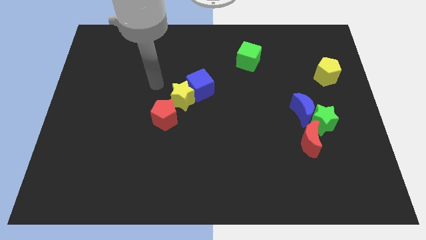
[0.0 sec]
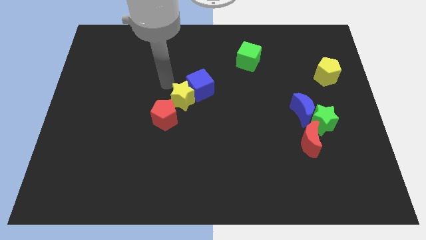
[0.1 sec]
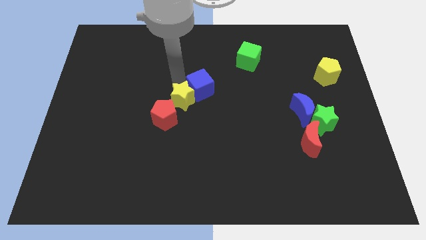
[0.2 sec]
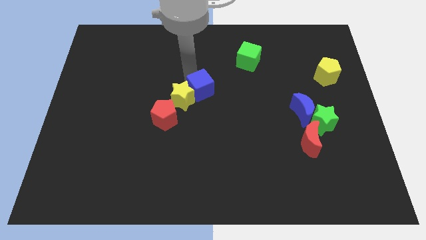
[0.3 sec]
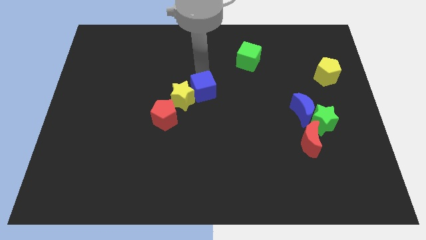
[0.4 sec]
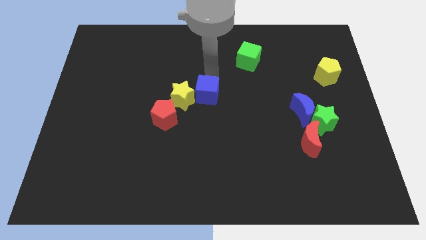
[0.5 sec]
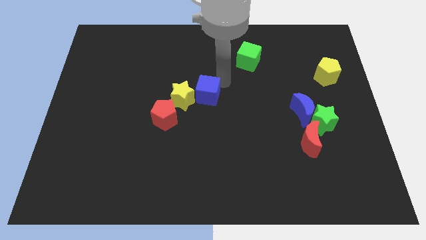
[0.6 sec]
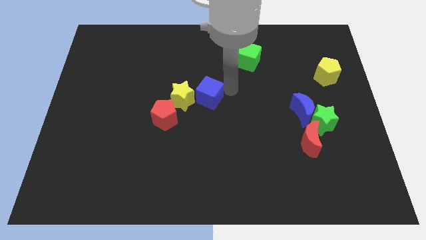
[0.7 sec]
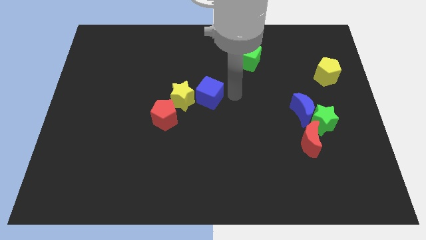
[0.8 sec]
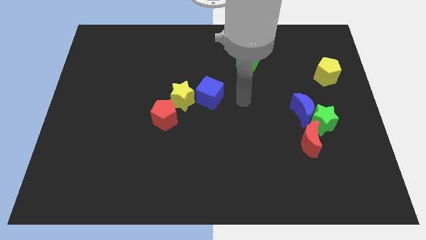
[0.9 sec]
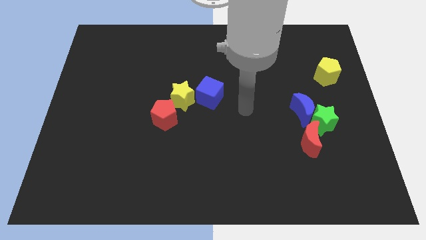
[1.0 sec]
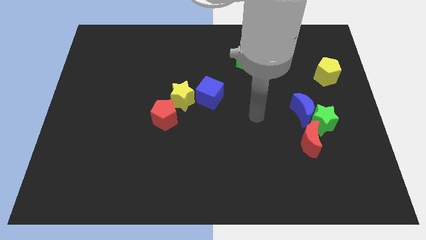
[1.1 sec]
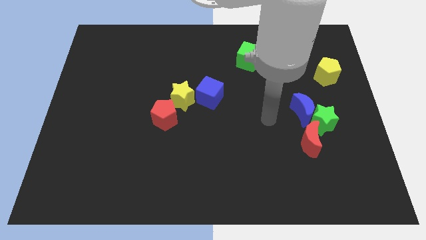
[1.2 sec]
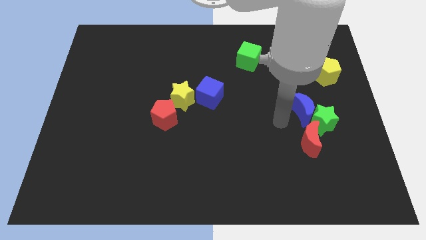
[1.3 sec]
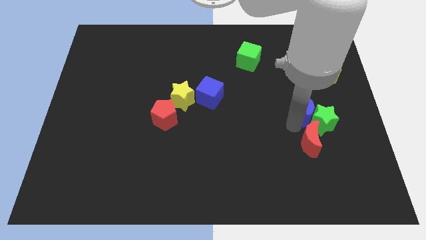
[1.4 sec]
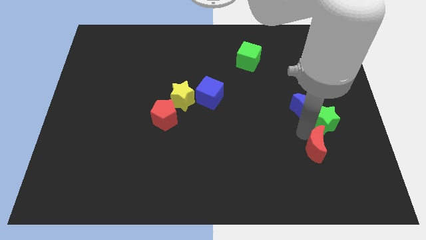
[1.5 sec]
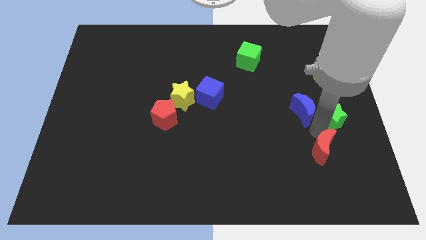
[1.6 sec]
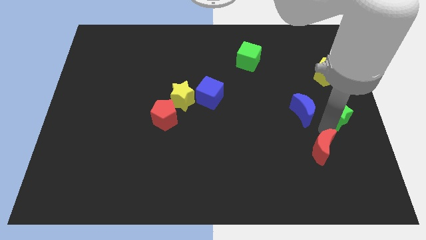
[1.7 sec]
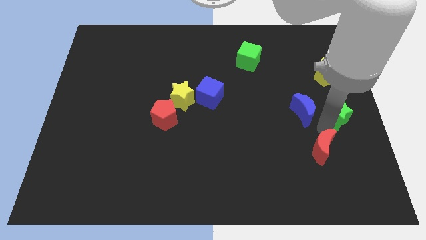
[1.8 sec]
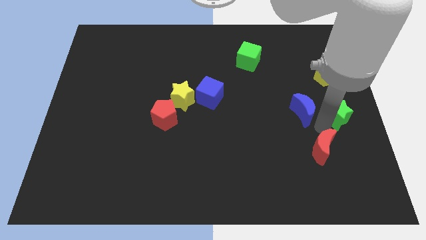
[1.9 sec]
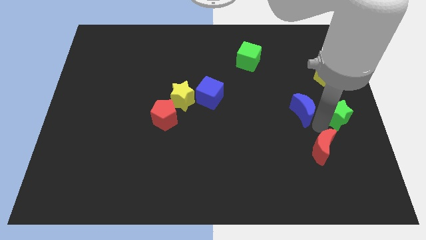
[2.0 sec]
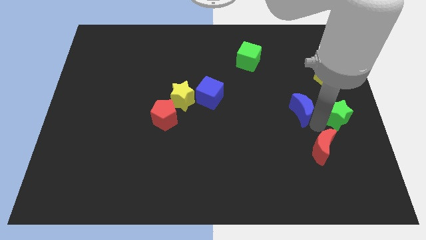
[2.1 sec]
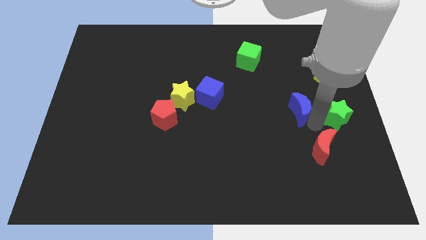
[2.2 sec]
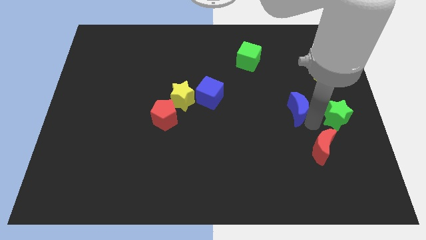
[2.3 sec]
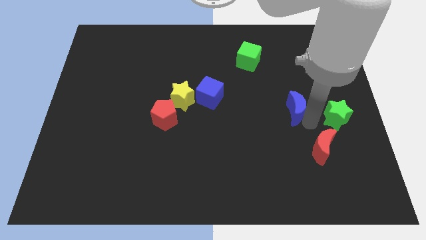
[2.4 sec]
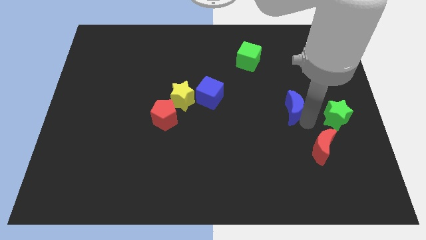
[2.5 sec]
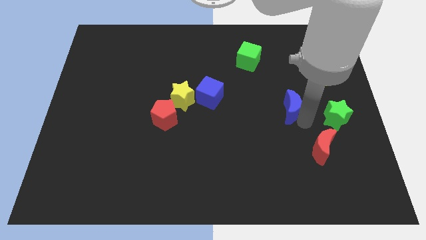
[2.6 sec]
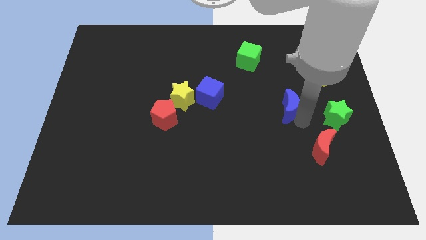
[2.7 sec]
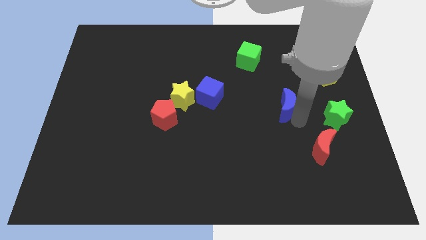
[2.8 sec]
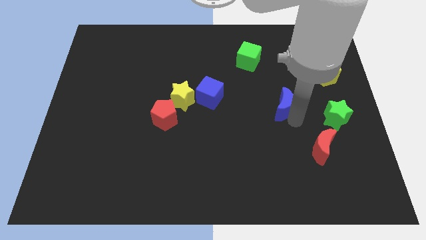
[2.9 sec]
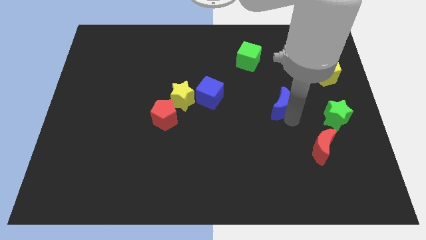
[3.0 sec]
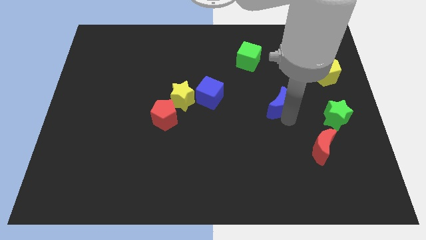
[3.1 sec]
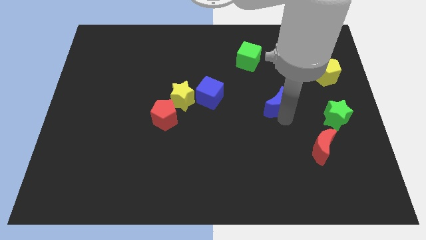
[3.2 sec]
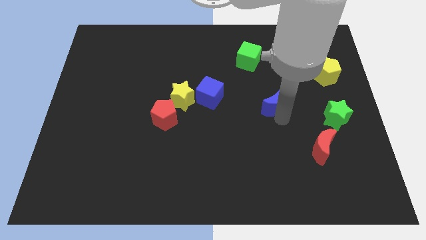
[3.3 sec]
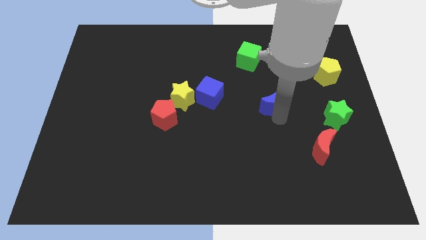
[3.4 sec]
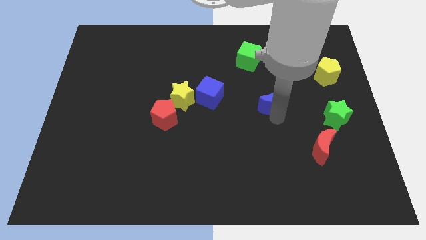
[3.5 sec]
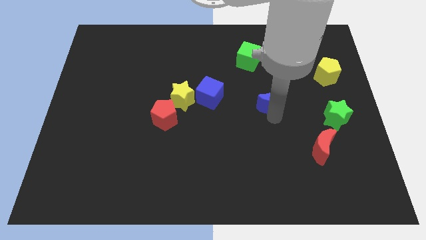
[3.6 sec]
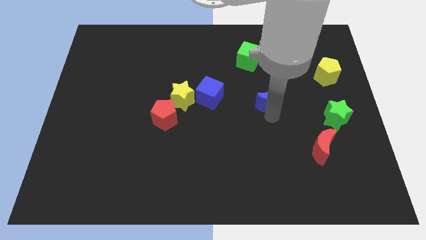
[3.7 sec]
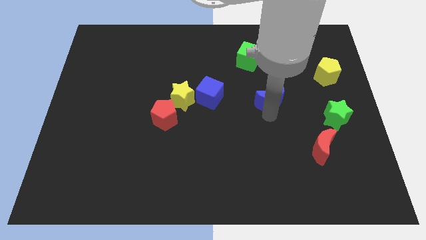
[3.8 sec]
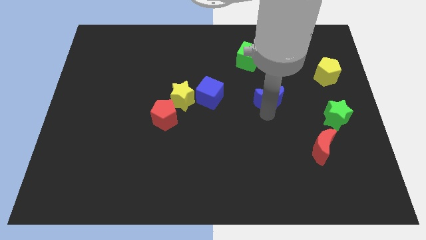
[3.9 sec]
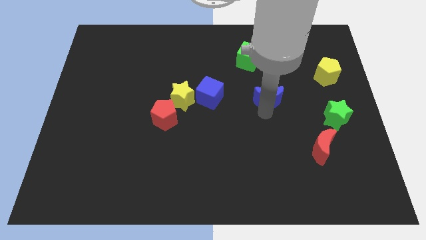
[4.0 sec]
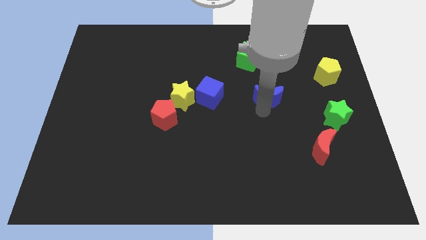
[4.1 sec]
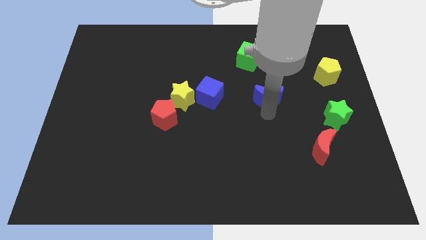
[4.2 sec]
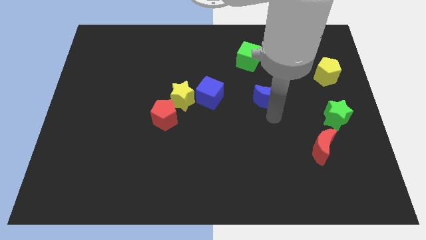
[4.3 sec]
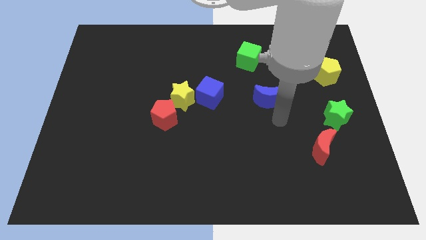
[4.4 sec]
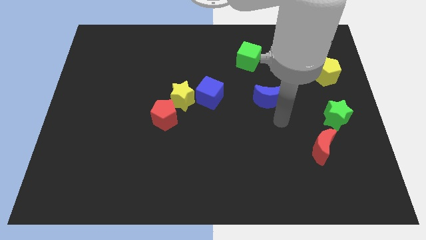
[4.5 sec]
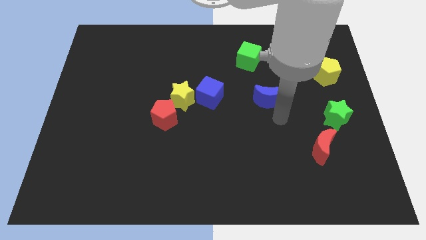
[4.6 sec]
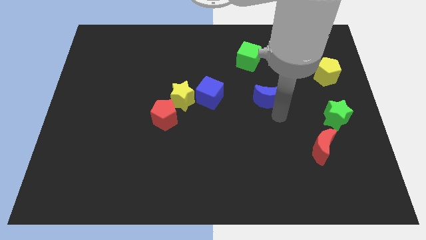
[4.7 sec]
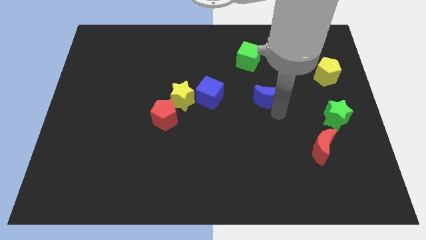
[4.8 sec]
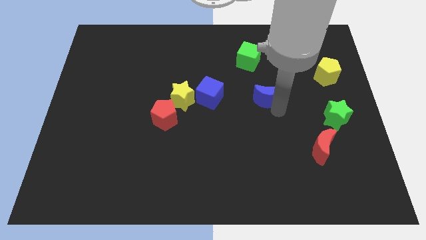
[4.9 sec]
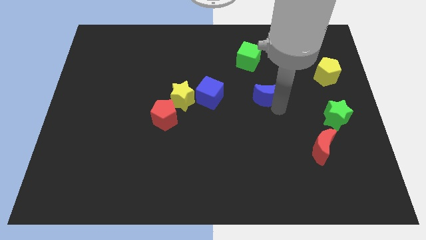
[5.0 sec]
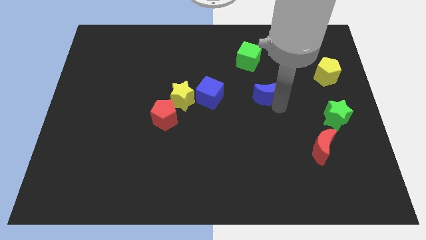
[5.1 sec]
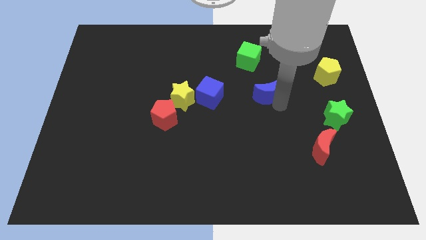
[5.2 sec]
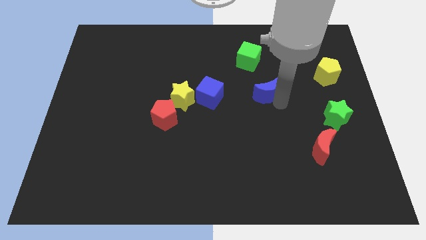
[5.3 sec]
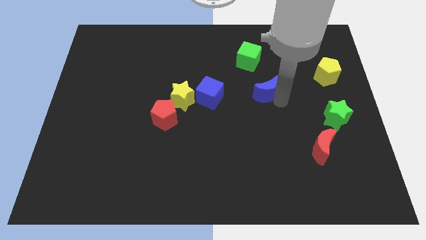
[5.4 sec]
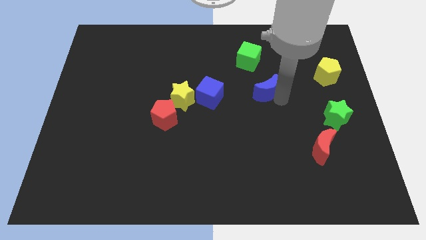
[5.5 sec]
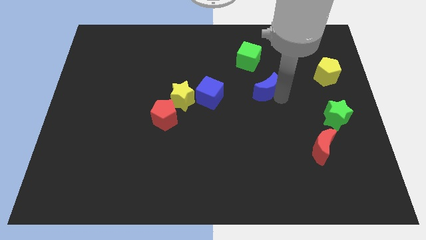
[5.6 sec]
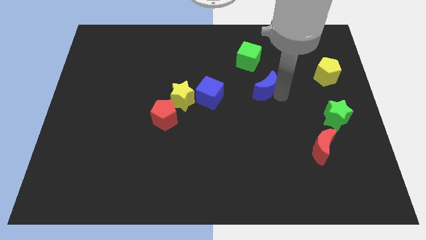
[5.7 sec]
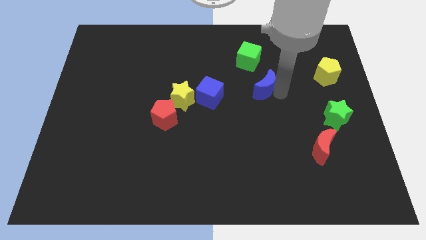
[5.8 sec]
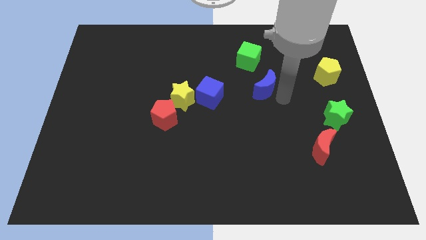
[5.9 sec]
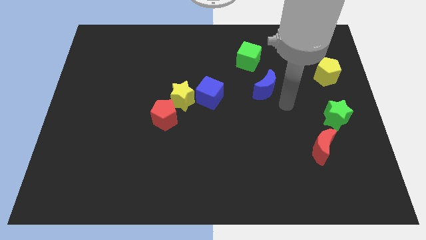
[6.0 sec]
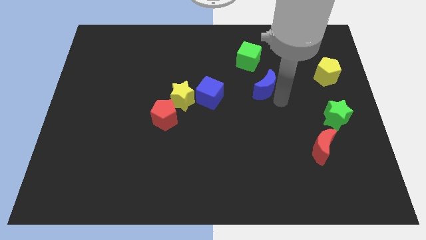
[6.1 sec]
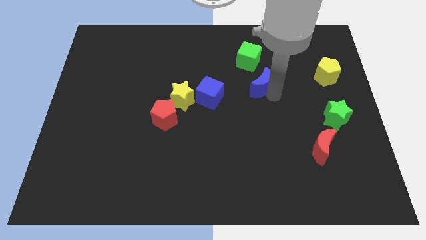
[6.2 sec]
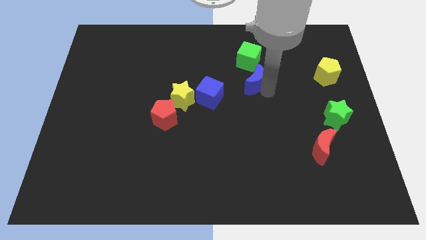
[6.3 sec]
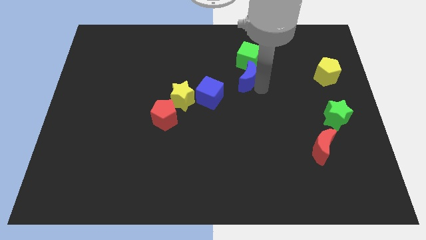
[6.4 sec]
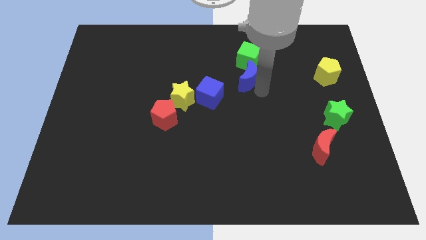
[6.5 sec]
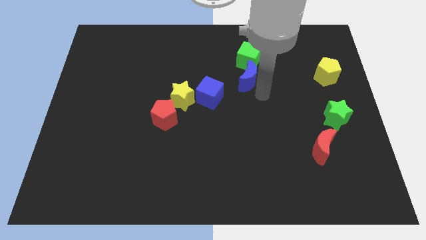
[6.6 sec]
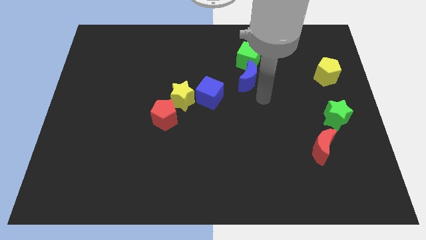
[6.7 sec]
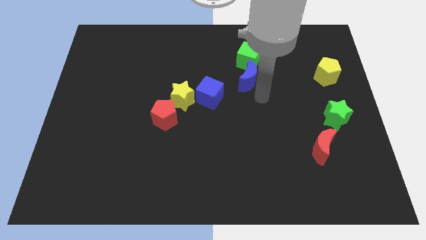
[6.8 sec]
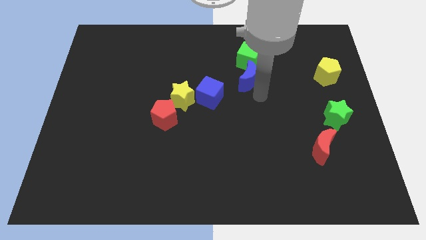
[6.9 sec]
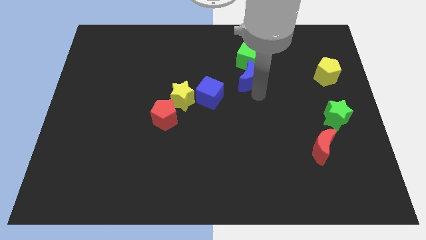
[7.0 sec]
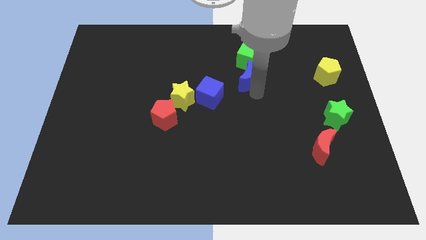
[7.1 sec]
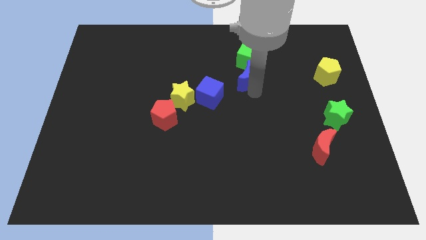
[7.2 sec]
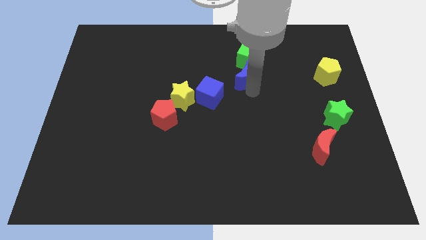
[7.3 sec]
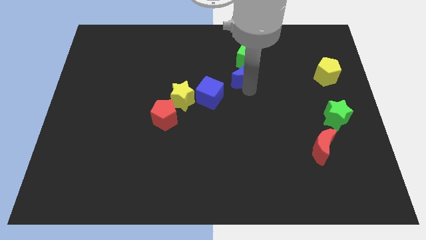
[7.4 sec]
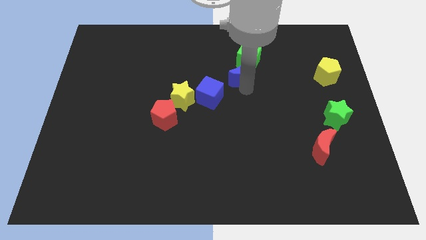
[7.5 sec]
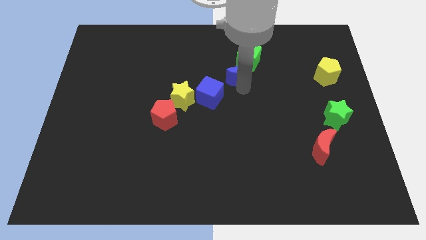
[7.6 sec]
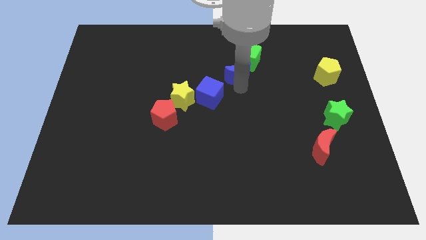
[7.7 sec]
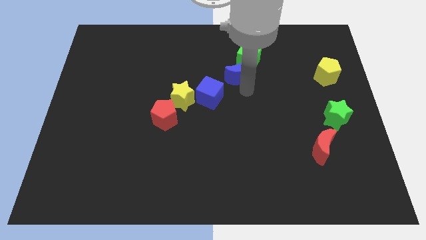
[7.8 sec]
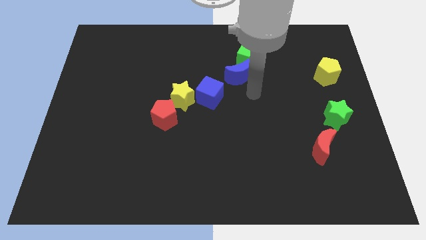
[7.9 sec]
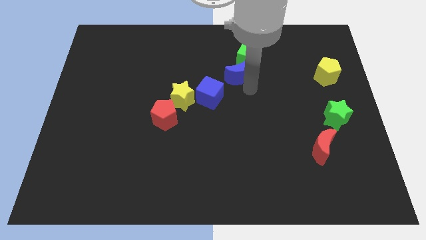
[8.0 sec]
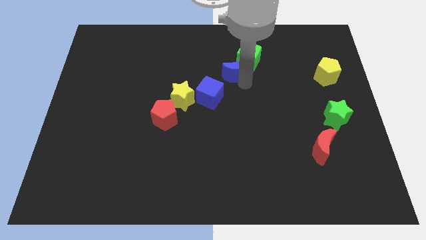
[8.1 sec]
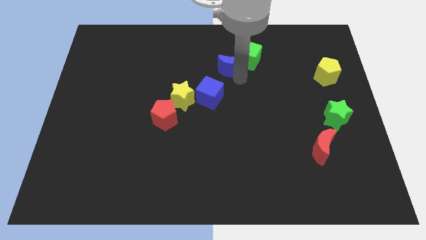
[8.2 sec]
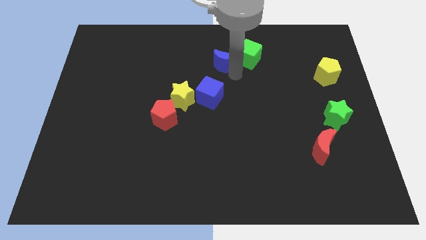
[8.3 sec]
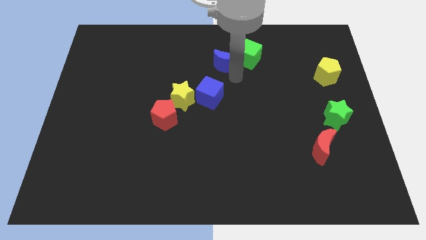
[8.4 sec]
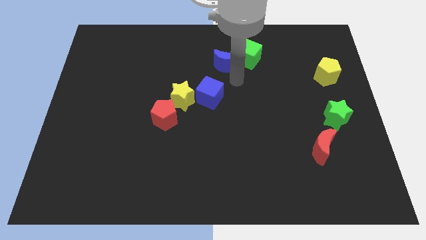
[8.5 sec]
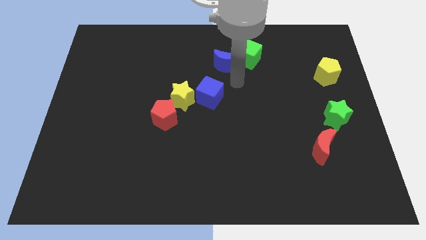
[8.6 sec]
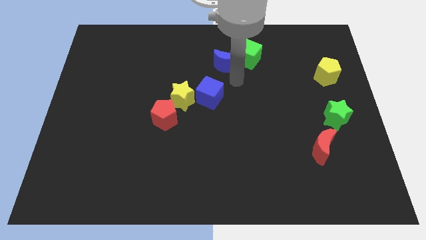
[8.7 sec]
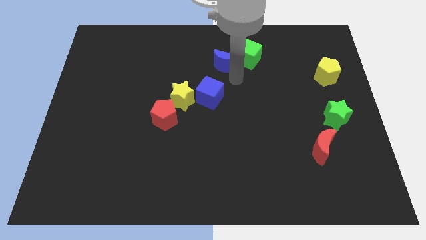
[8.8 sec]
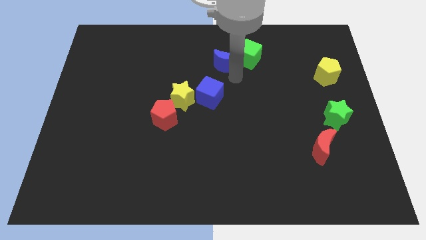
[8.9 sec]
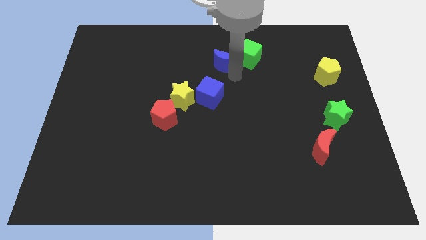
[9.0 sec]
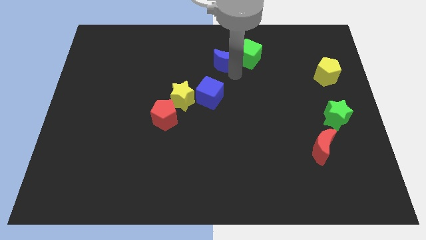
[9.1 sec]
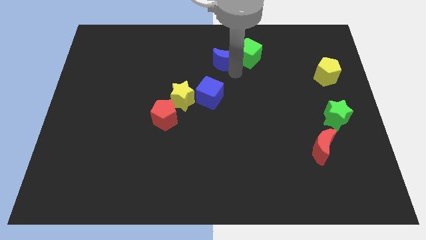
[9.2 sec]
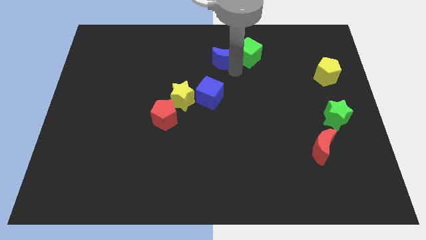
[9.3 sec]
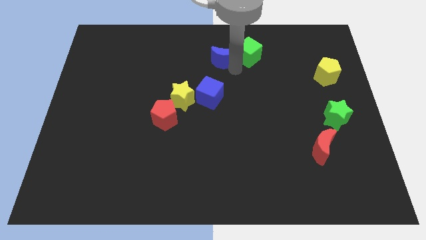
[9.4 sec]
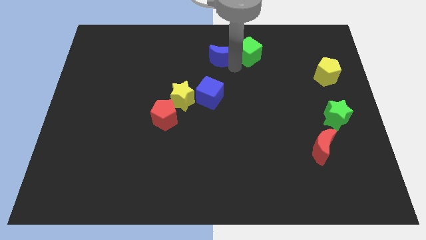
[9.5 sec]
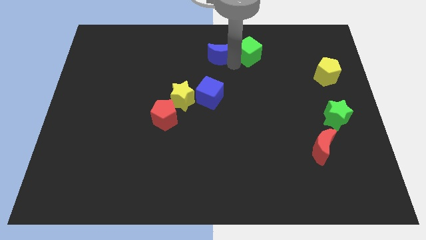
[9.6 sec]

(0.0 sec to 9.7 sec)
push the blue moon to the towards your base
